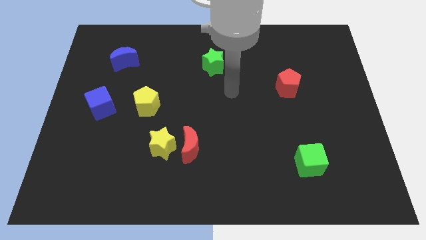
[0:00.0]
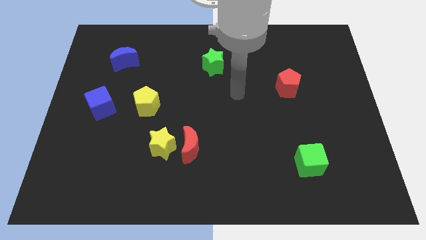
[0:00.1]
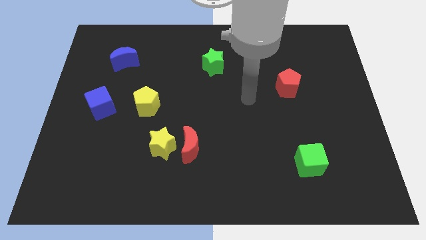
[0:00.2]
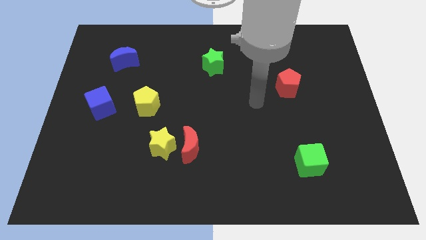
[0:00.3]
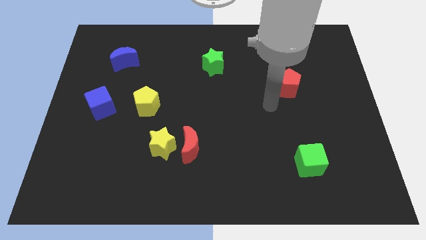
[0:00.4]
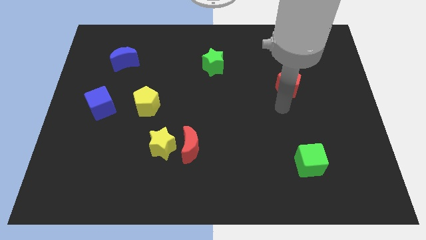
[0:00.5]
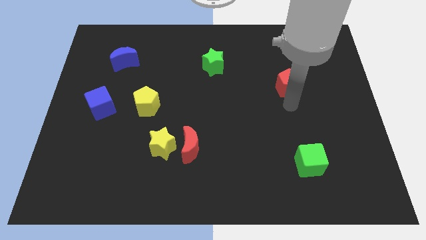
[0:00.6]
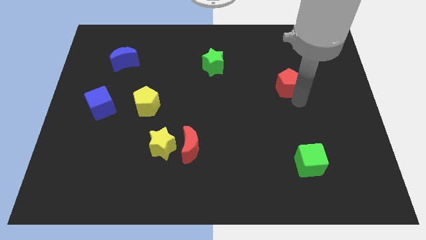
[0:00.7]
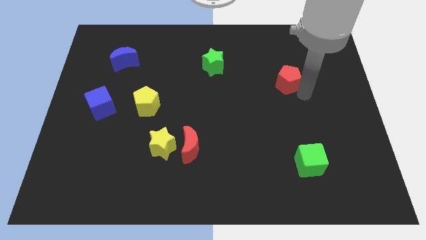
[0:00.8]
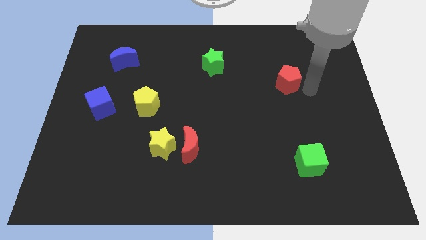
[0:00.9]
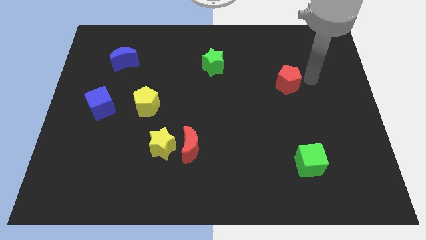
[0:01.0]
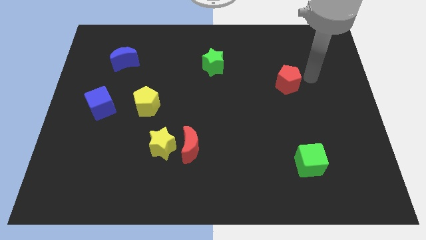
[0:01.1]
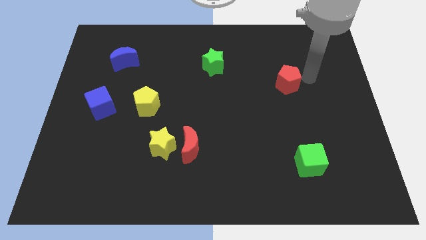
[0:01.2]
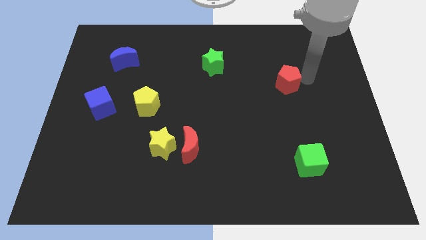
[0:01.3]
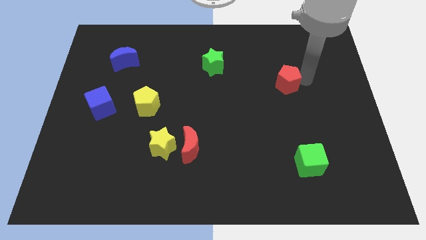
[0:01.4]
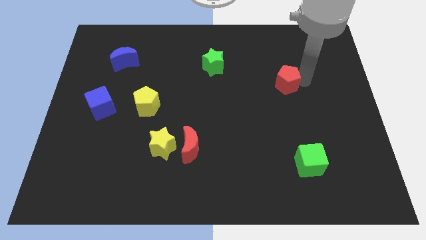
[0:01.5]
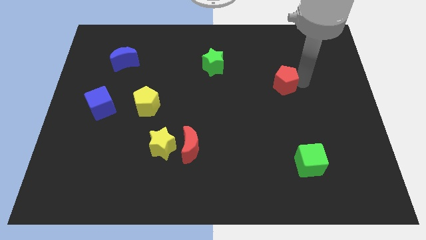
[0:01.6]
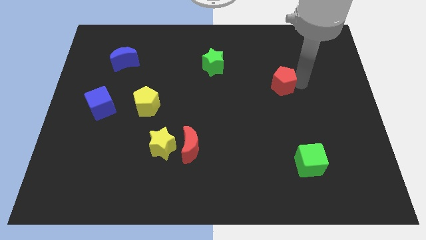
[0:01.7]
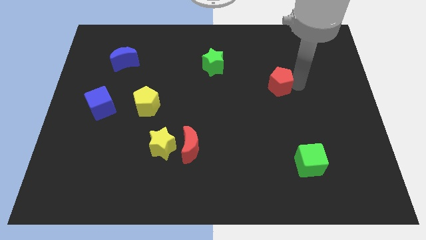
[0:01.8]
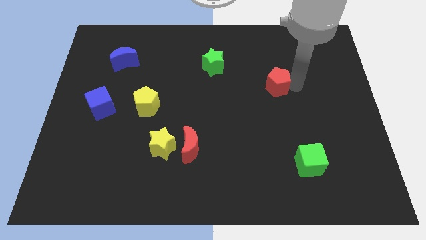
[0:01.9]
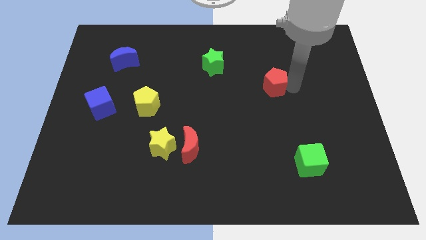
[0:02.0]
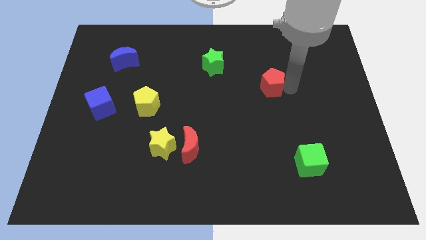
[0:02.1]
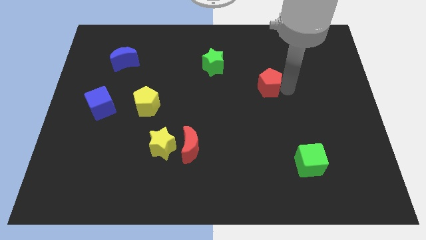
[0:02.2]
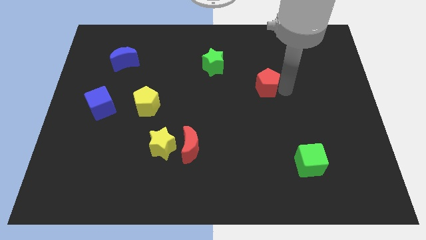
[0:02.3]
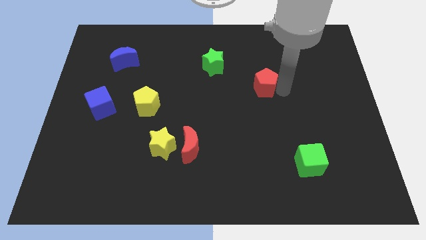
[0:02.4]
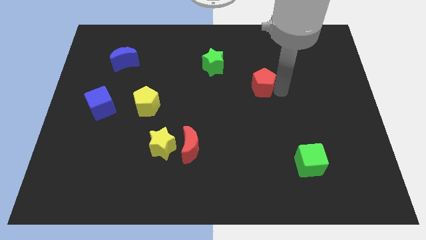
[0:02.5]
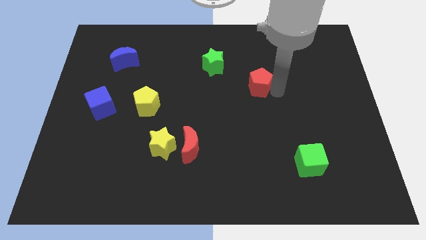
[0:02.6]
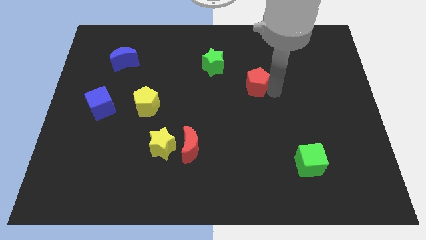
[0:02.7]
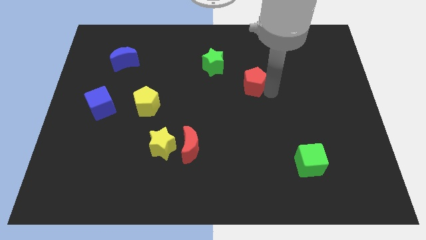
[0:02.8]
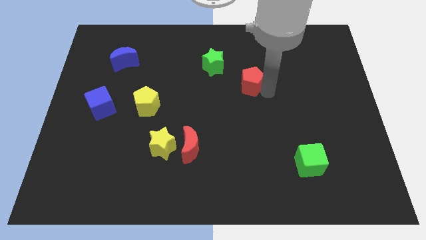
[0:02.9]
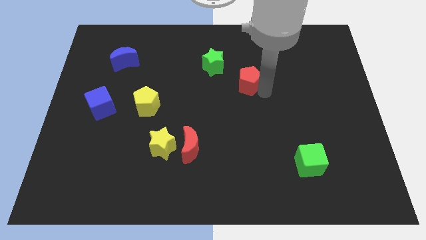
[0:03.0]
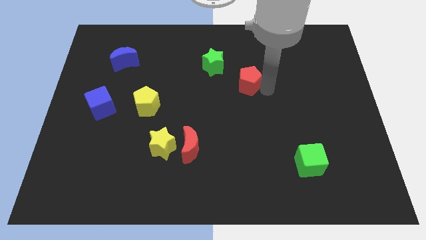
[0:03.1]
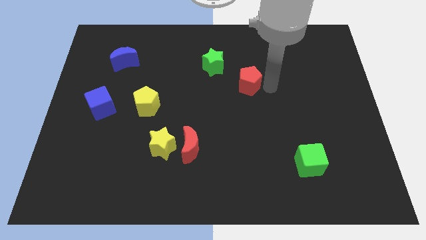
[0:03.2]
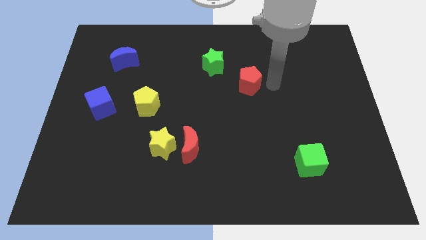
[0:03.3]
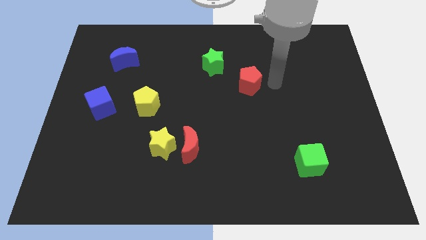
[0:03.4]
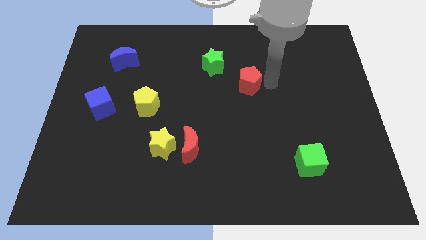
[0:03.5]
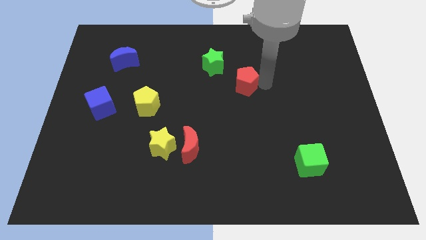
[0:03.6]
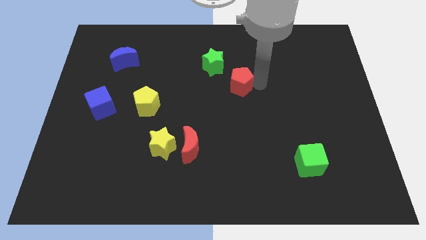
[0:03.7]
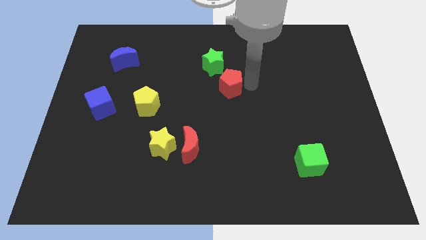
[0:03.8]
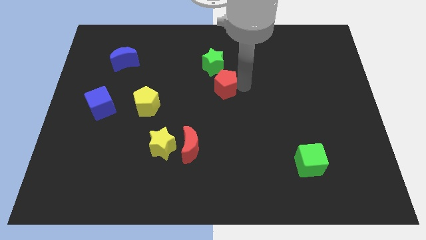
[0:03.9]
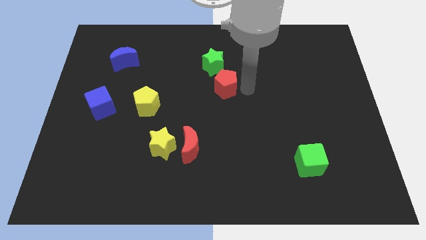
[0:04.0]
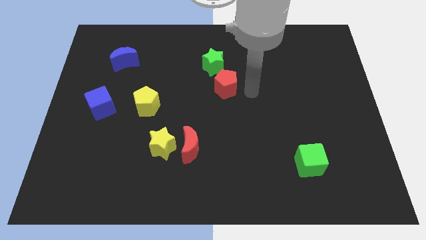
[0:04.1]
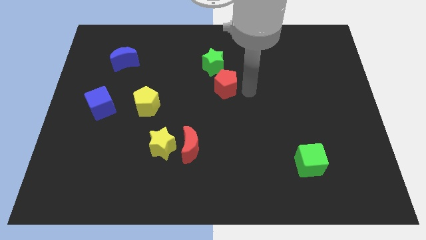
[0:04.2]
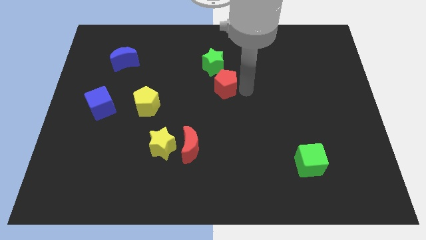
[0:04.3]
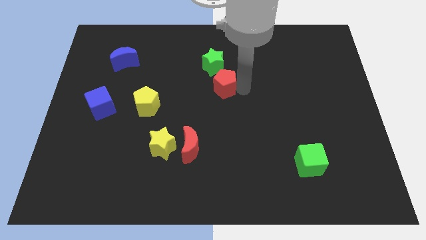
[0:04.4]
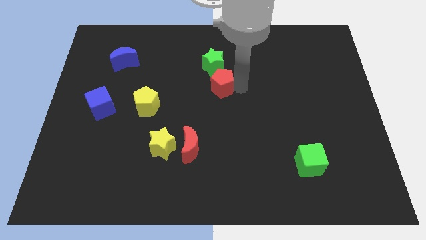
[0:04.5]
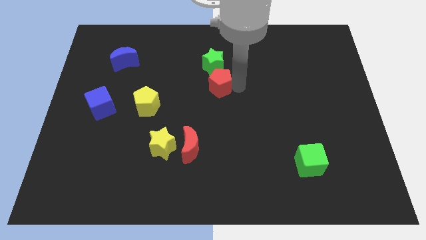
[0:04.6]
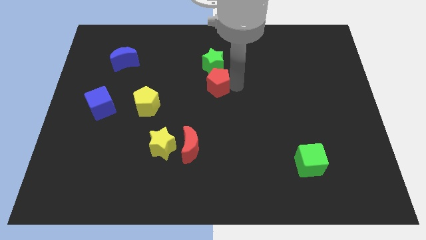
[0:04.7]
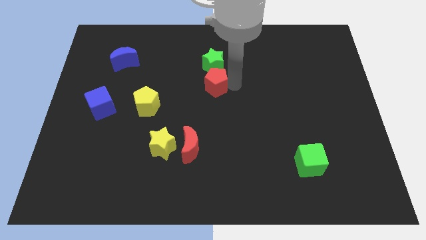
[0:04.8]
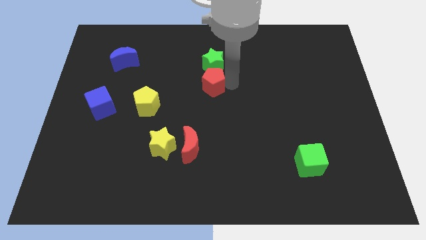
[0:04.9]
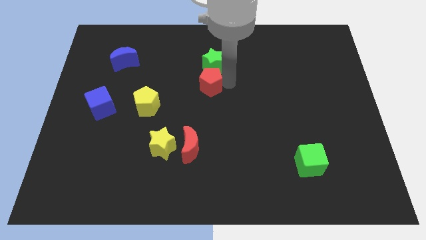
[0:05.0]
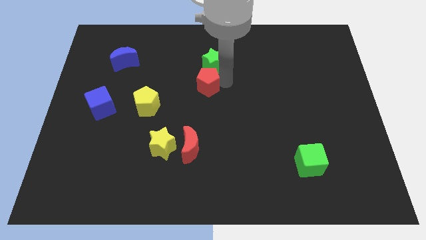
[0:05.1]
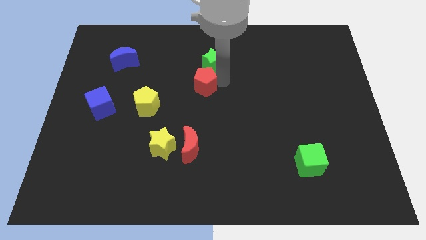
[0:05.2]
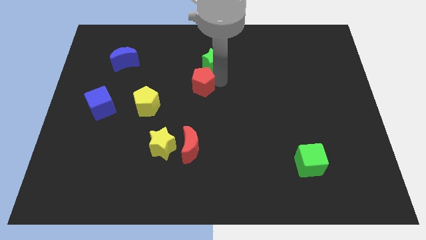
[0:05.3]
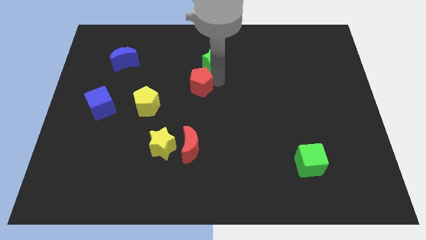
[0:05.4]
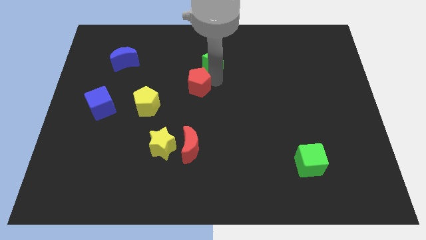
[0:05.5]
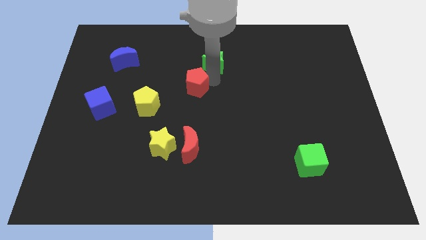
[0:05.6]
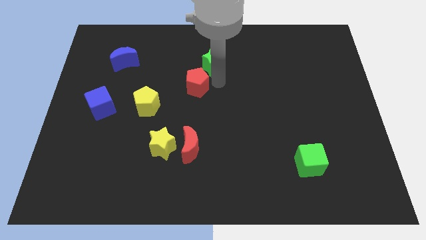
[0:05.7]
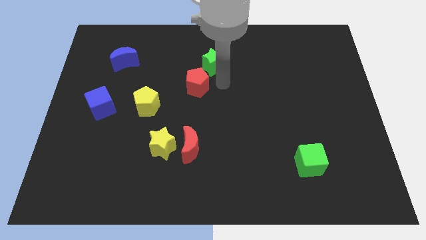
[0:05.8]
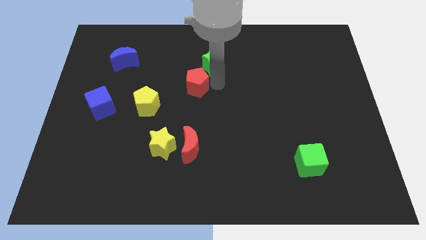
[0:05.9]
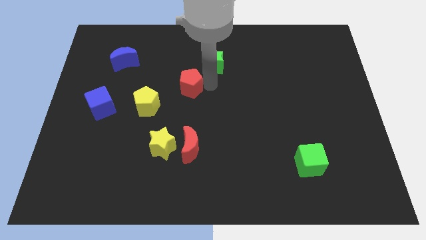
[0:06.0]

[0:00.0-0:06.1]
slide the red pentagon diagonally up and to the right of the yellow pentagon

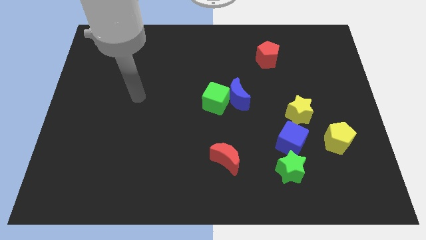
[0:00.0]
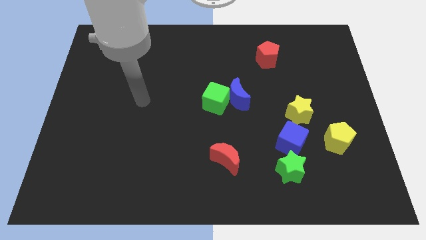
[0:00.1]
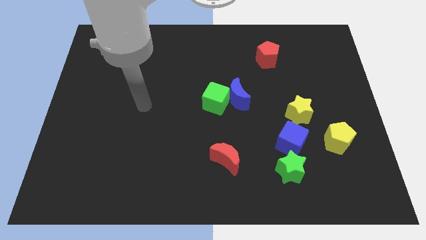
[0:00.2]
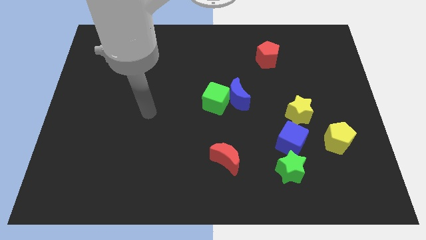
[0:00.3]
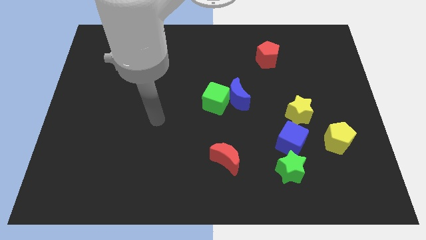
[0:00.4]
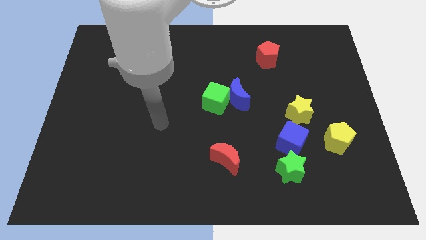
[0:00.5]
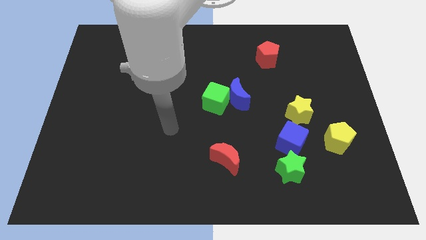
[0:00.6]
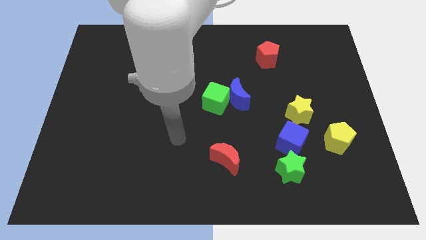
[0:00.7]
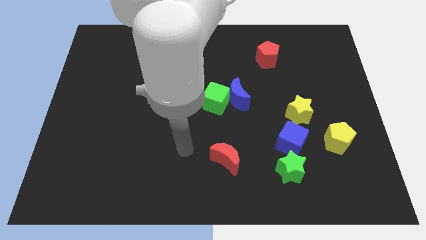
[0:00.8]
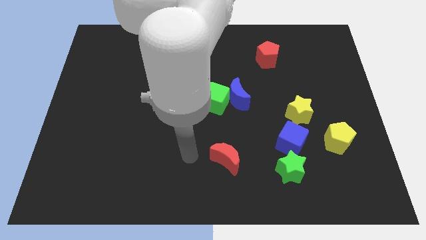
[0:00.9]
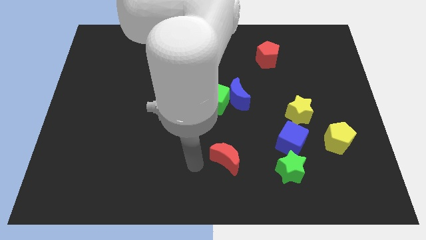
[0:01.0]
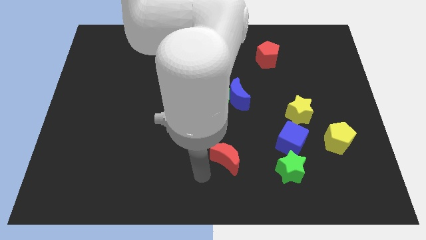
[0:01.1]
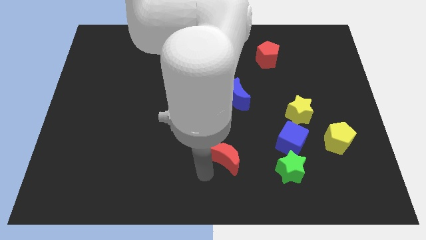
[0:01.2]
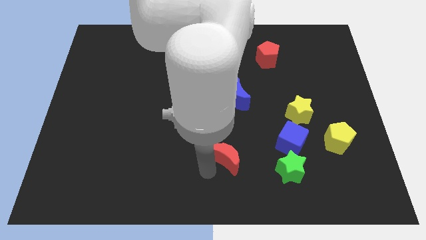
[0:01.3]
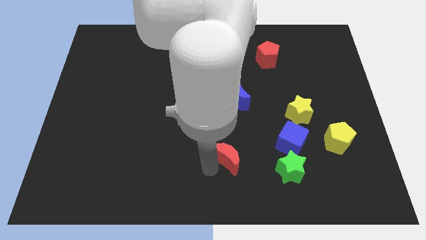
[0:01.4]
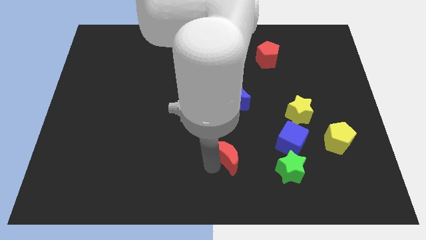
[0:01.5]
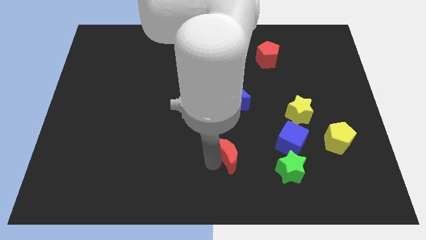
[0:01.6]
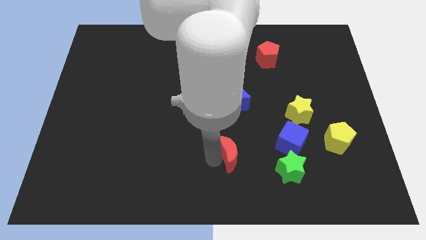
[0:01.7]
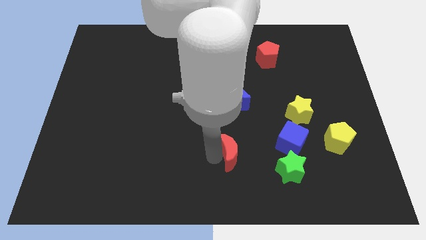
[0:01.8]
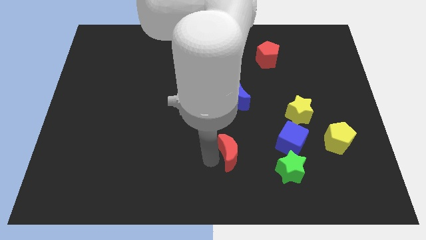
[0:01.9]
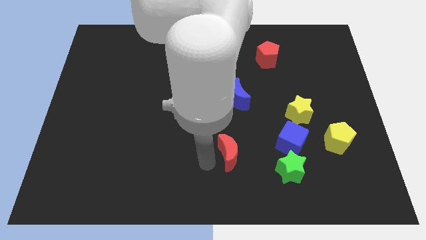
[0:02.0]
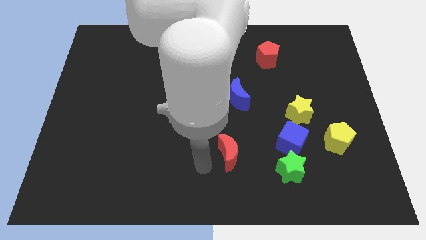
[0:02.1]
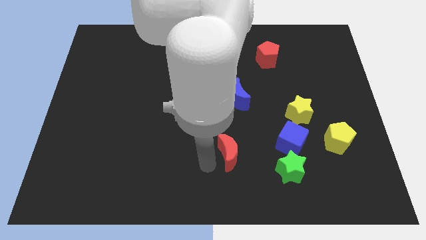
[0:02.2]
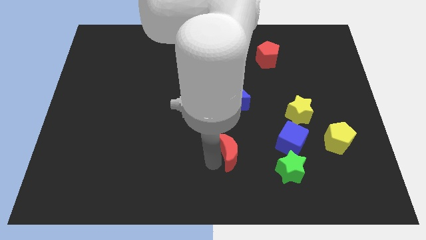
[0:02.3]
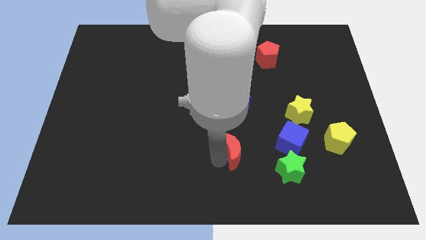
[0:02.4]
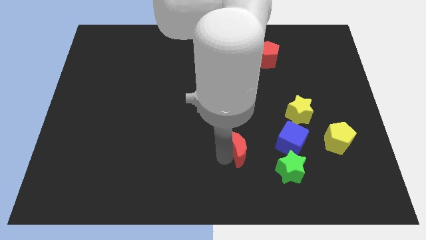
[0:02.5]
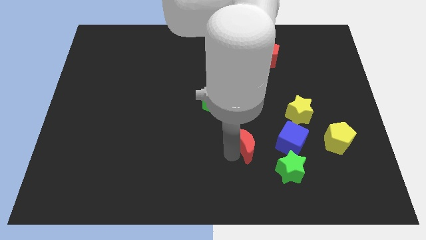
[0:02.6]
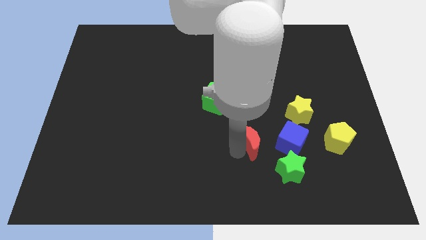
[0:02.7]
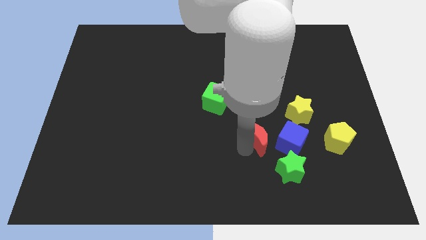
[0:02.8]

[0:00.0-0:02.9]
push the red moon to the top left of the blue cube
